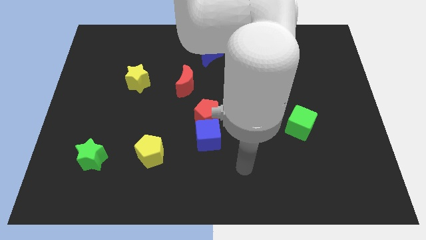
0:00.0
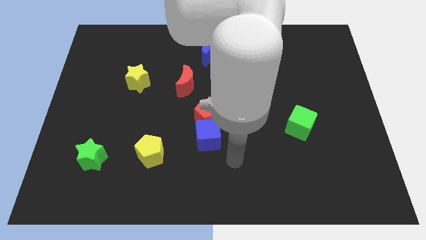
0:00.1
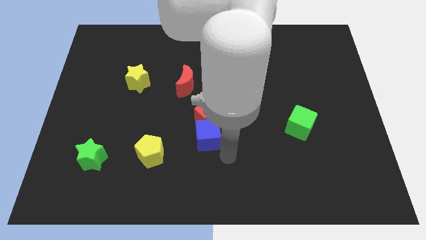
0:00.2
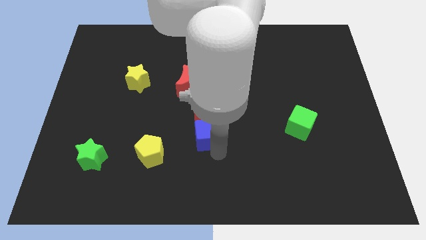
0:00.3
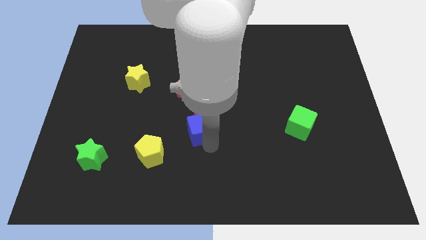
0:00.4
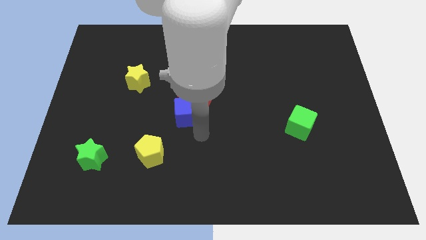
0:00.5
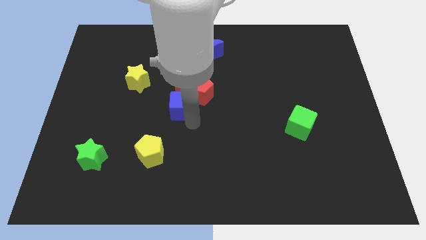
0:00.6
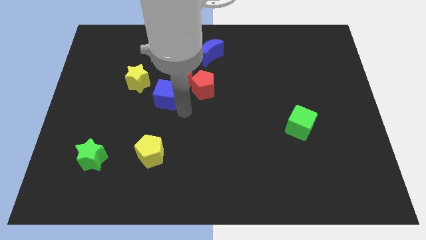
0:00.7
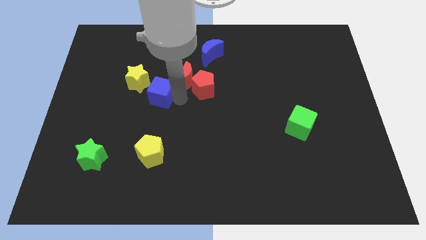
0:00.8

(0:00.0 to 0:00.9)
separate the red pentagon from the blue cube

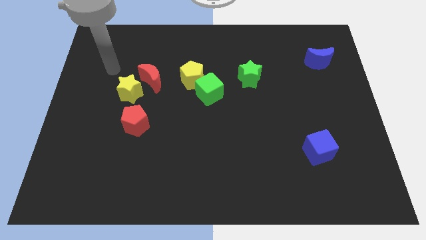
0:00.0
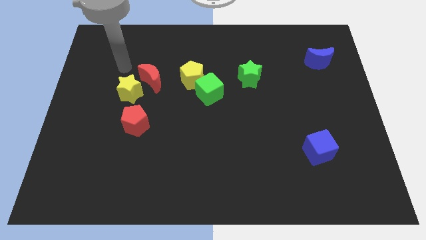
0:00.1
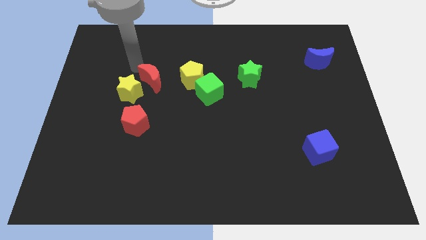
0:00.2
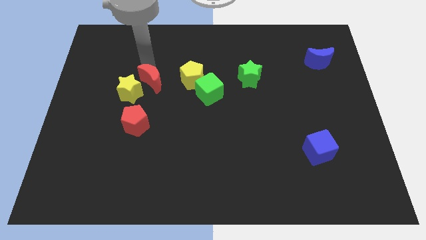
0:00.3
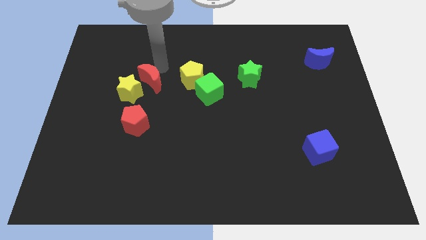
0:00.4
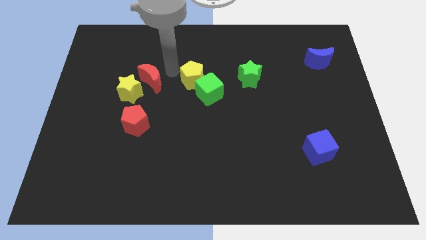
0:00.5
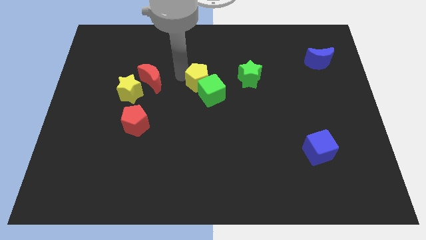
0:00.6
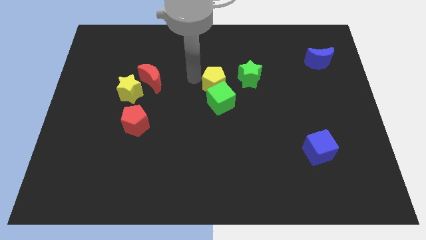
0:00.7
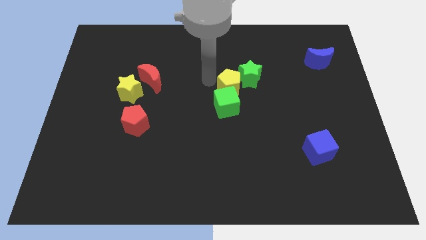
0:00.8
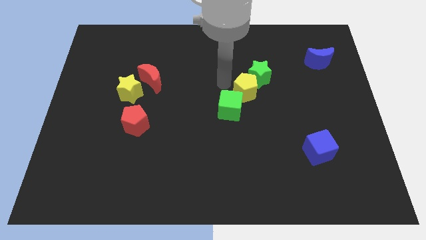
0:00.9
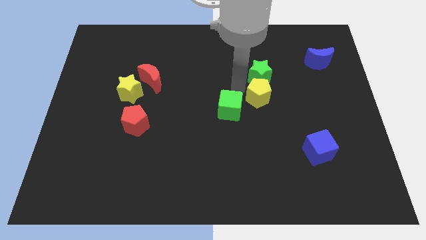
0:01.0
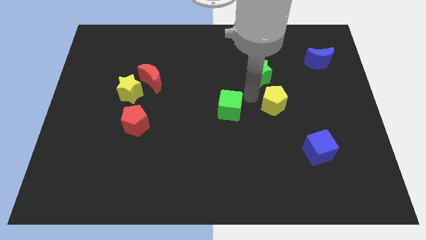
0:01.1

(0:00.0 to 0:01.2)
separate the green cube from the yellow pentagon

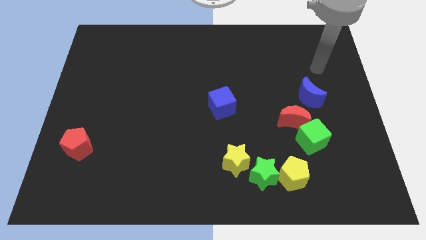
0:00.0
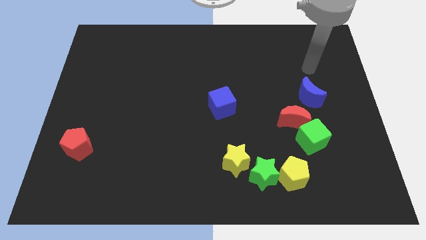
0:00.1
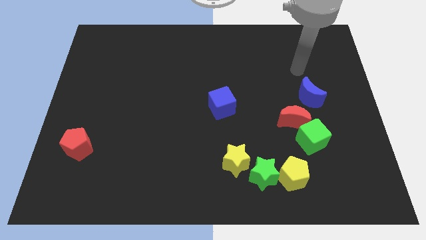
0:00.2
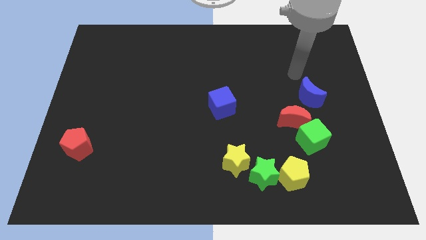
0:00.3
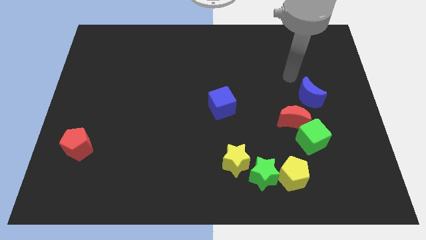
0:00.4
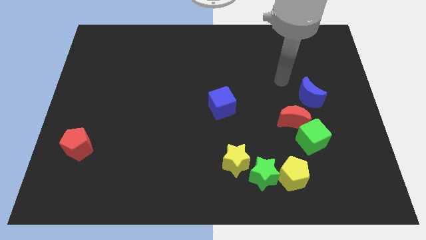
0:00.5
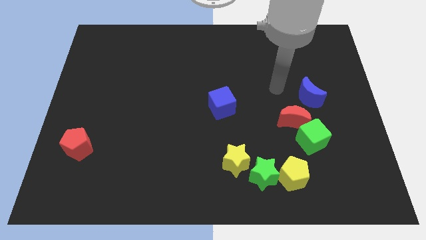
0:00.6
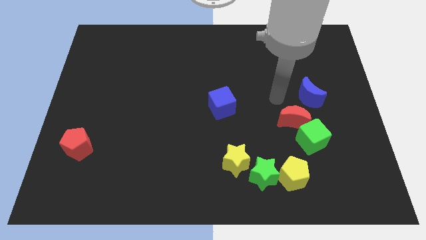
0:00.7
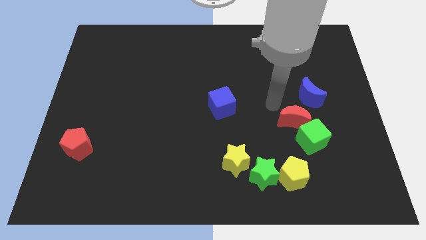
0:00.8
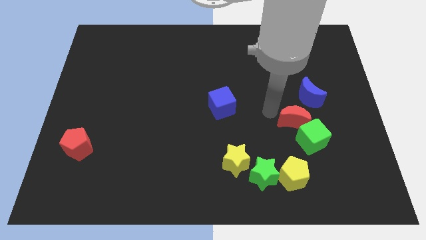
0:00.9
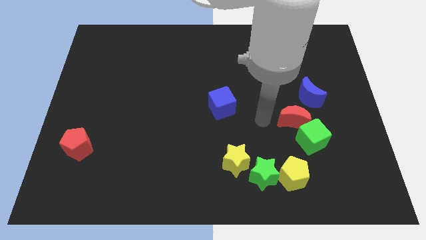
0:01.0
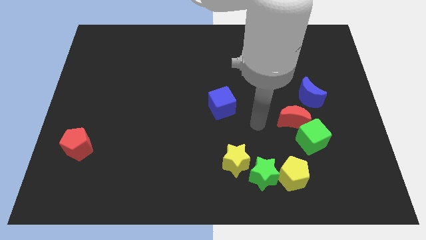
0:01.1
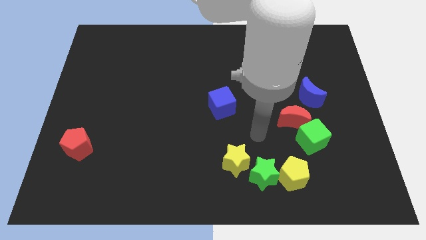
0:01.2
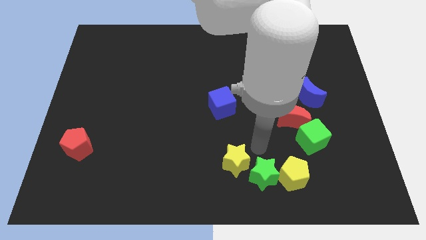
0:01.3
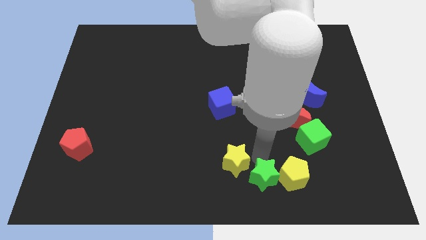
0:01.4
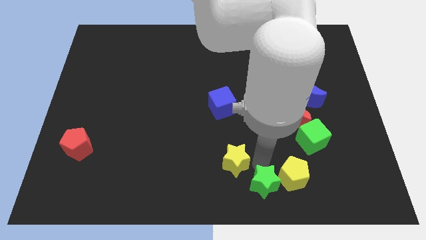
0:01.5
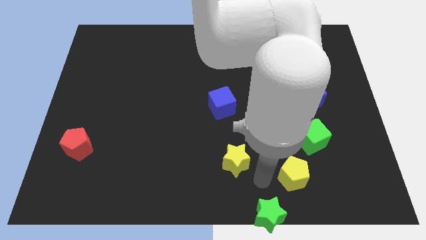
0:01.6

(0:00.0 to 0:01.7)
pull the yellow pentagon apart from the green star

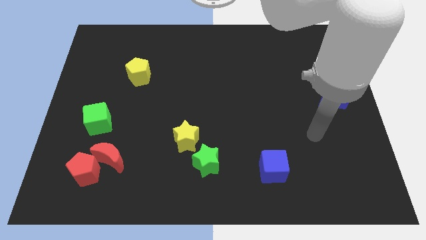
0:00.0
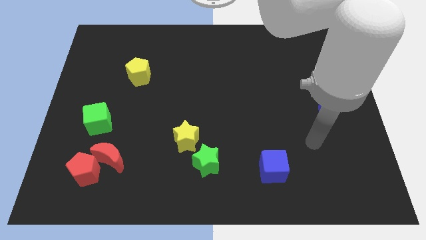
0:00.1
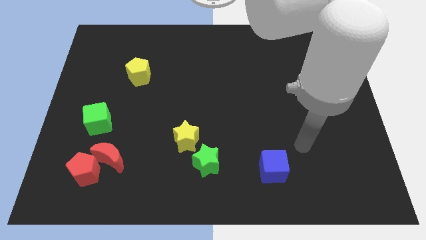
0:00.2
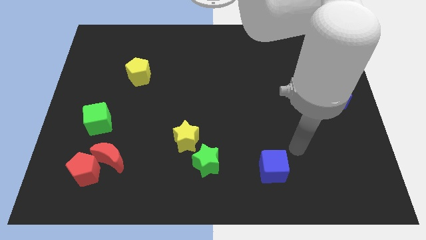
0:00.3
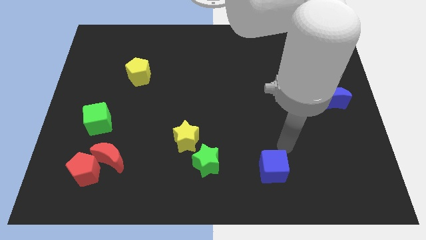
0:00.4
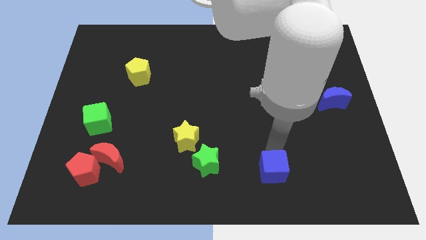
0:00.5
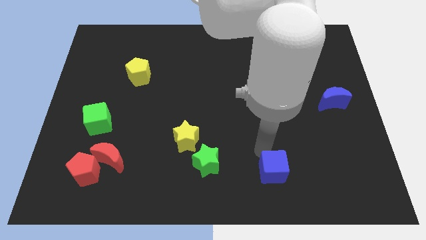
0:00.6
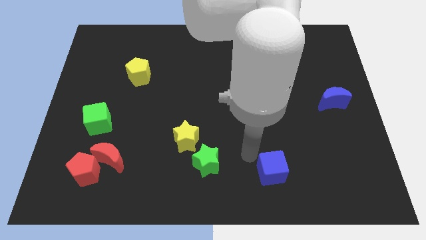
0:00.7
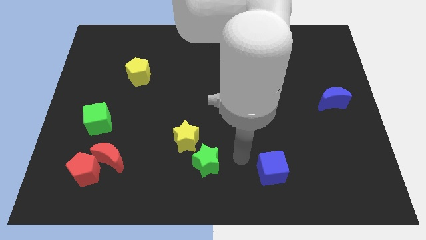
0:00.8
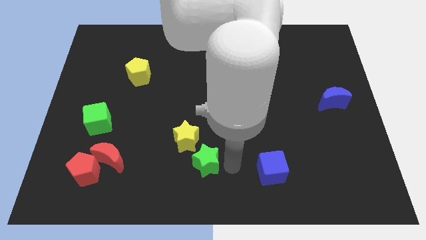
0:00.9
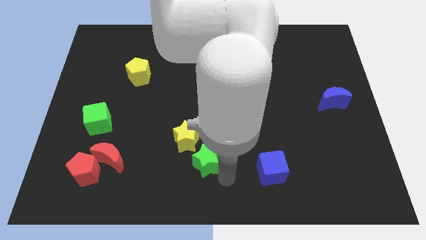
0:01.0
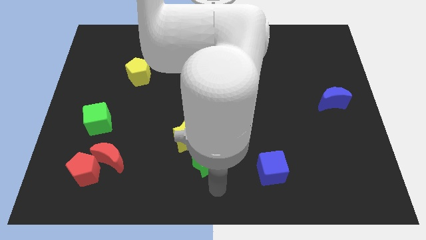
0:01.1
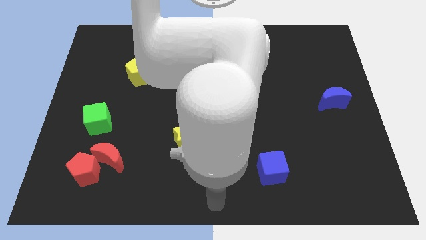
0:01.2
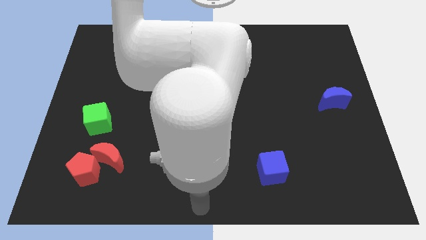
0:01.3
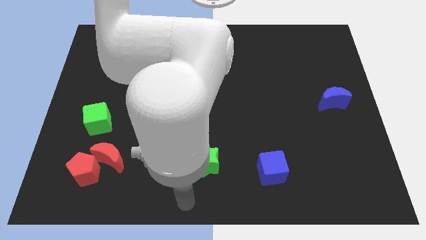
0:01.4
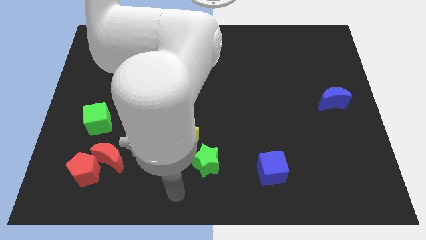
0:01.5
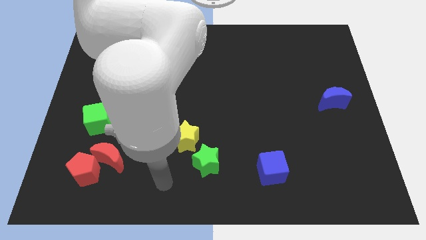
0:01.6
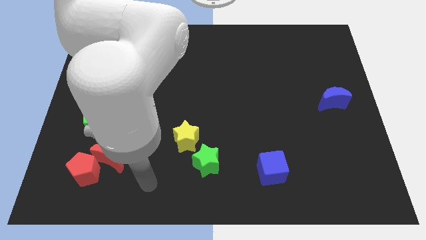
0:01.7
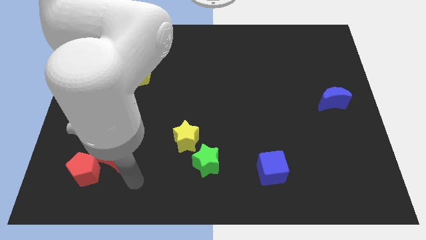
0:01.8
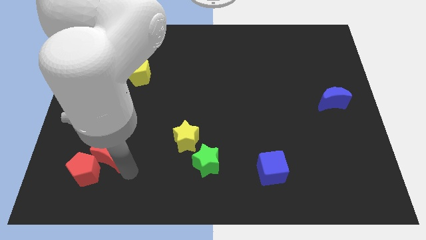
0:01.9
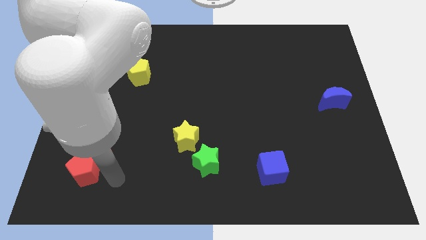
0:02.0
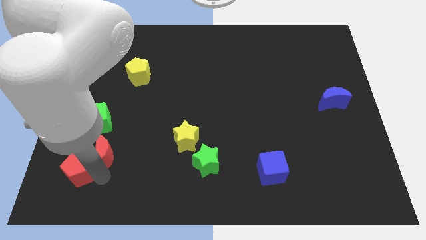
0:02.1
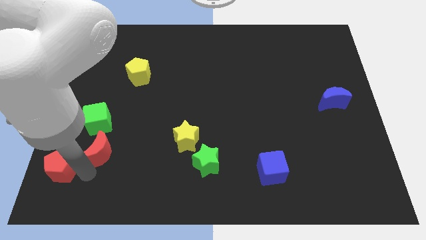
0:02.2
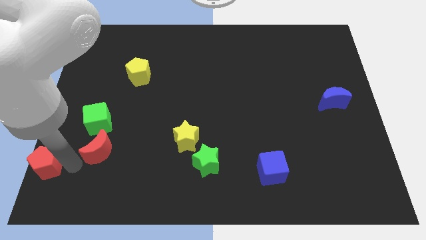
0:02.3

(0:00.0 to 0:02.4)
move the red moon away from the red pentagon

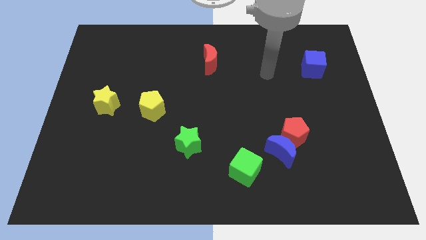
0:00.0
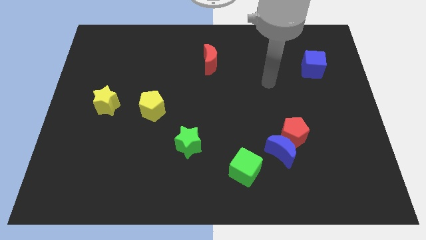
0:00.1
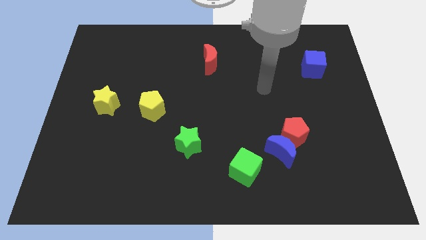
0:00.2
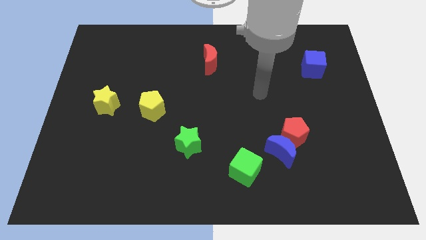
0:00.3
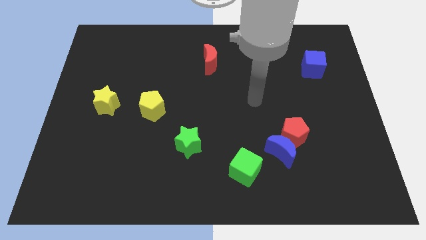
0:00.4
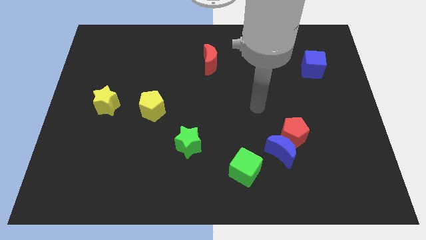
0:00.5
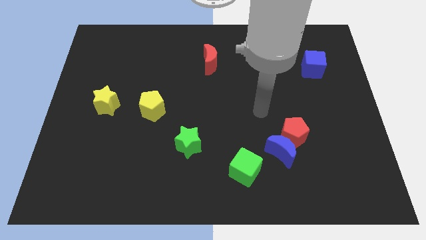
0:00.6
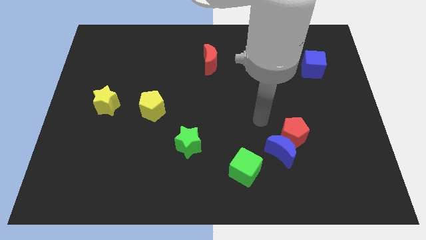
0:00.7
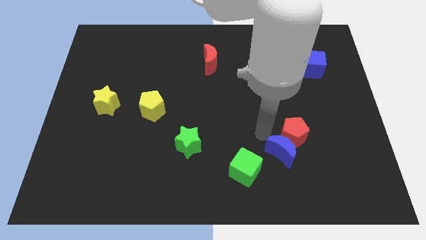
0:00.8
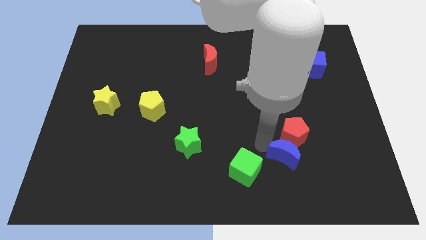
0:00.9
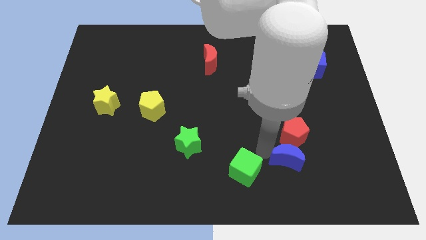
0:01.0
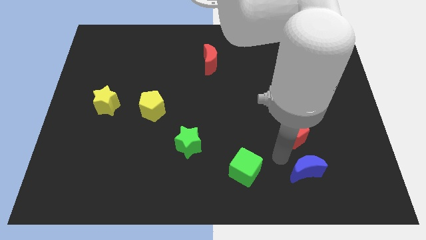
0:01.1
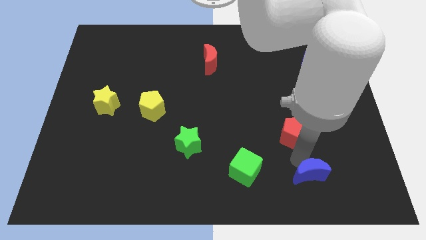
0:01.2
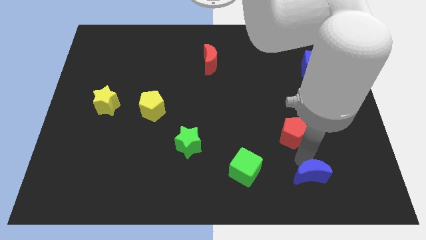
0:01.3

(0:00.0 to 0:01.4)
separate the red pentagon from the blue moon

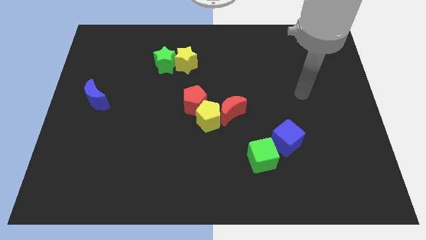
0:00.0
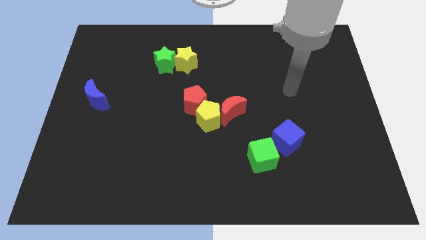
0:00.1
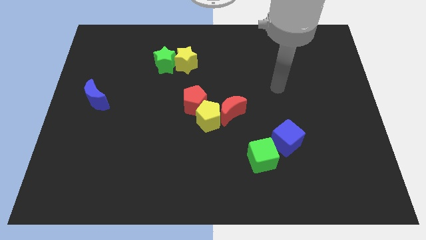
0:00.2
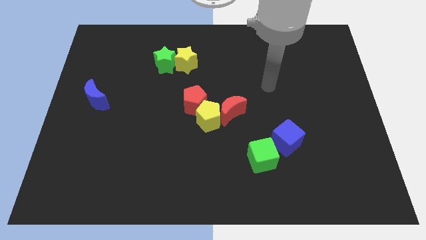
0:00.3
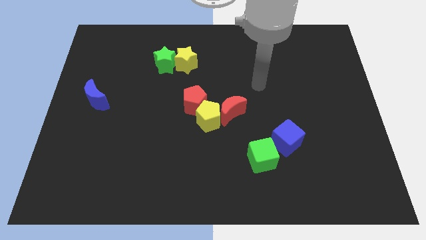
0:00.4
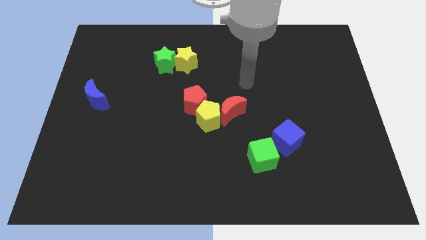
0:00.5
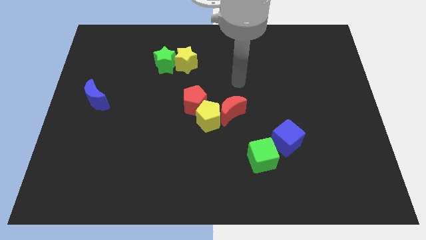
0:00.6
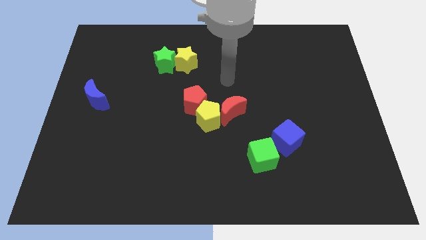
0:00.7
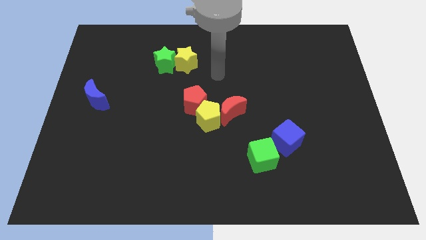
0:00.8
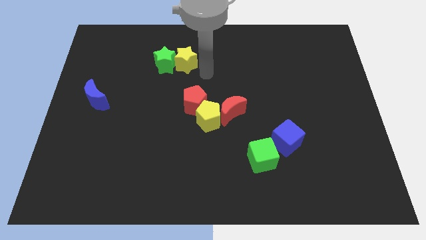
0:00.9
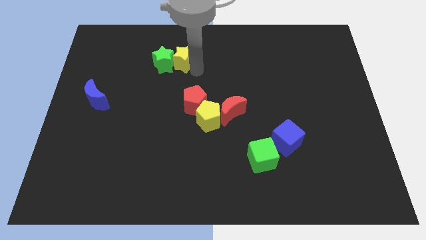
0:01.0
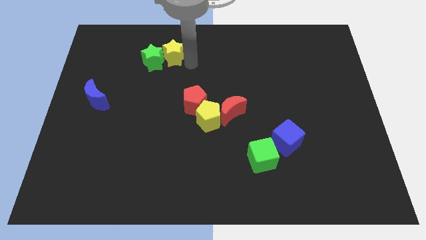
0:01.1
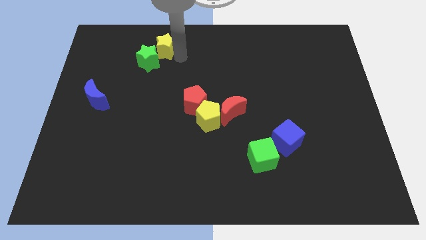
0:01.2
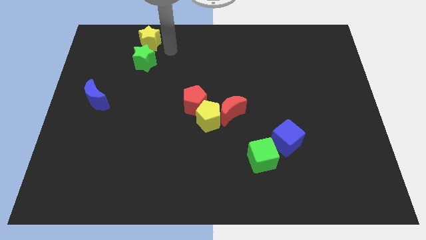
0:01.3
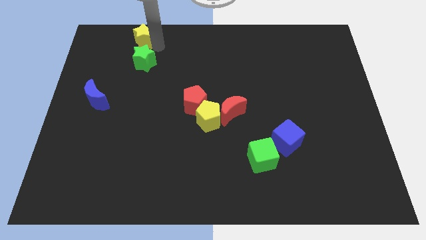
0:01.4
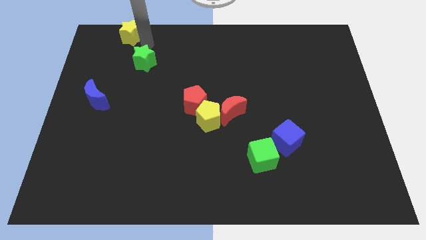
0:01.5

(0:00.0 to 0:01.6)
pull the green star apart from the yellow star

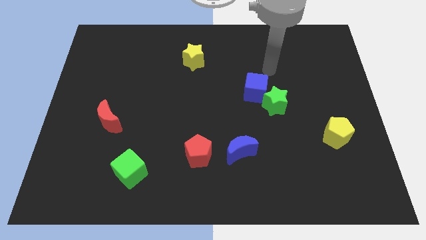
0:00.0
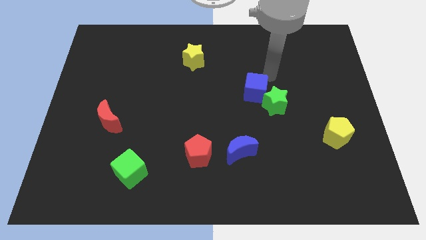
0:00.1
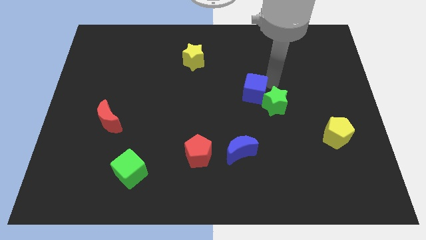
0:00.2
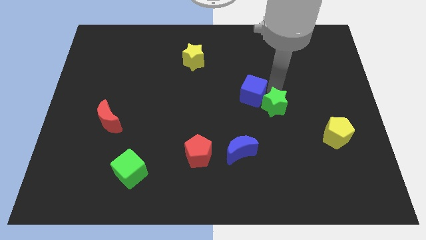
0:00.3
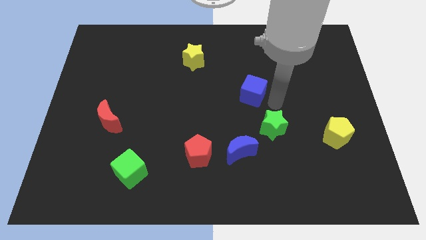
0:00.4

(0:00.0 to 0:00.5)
separate the blue cube from the green star
